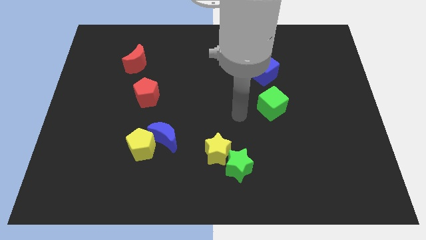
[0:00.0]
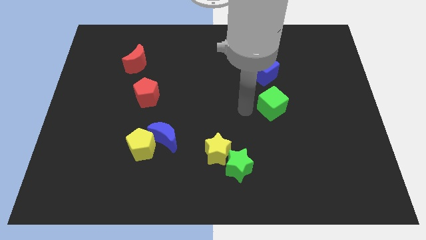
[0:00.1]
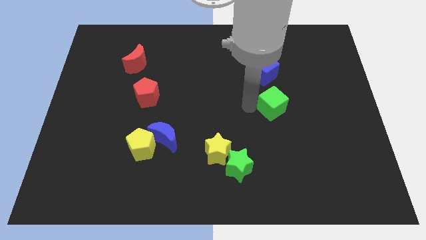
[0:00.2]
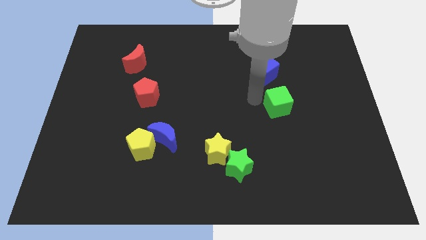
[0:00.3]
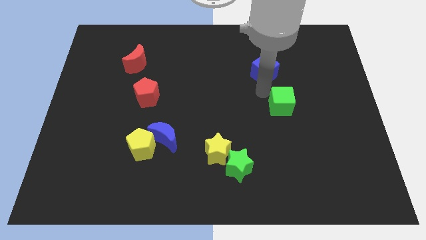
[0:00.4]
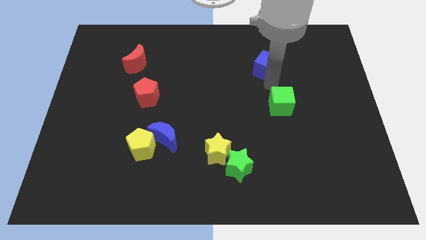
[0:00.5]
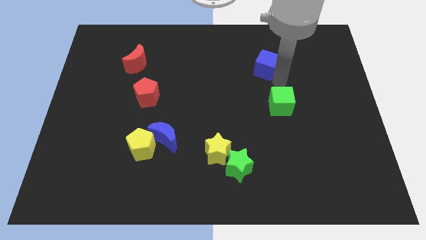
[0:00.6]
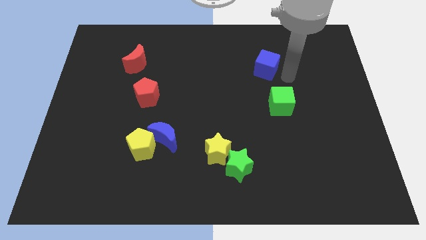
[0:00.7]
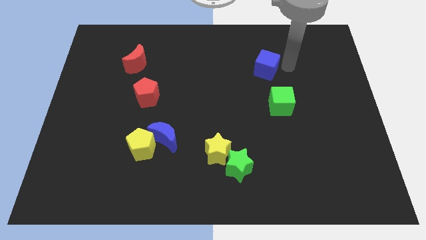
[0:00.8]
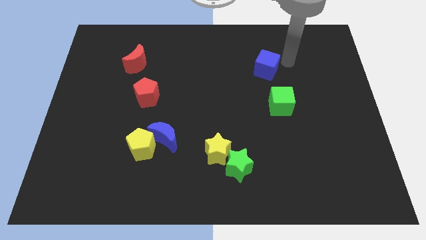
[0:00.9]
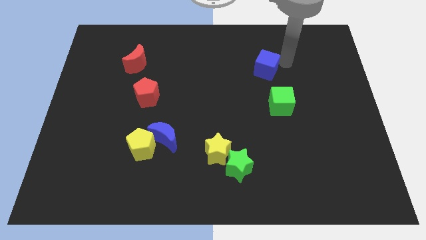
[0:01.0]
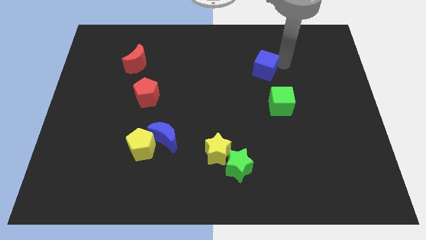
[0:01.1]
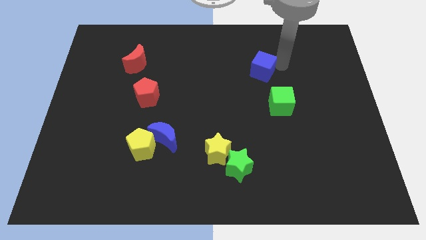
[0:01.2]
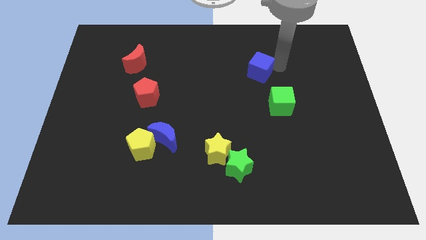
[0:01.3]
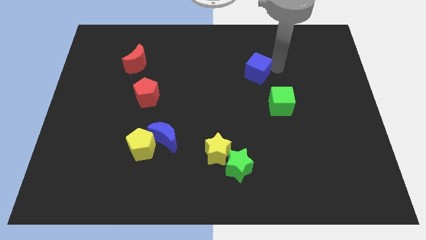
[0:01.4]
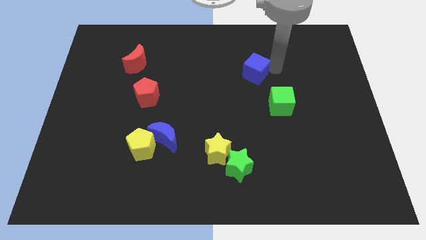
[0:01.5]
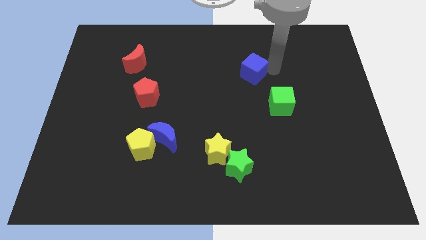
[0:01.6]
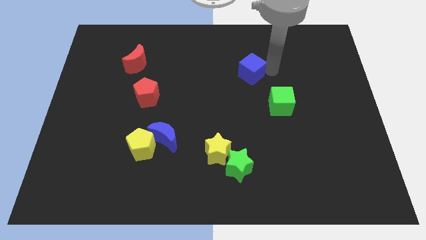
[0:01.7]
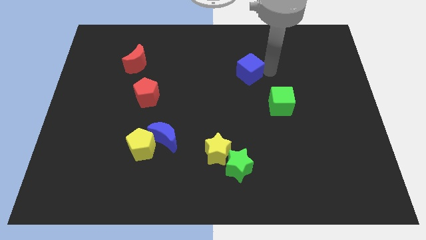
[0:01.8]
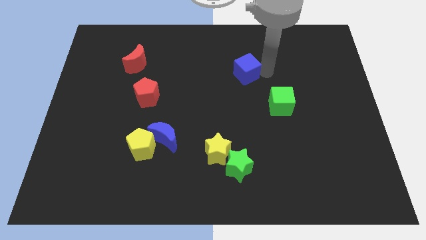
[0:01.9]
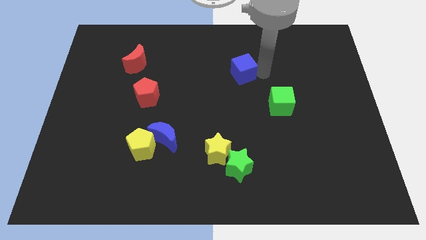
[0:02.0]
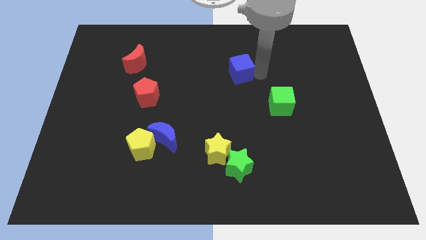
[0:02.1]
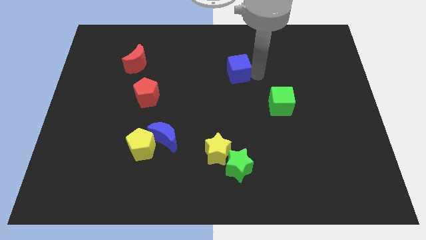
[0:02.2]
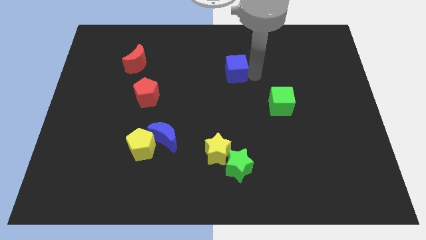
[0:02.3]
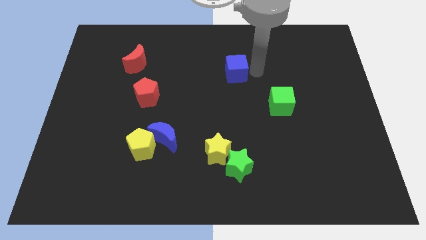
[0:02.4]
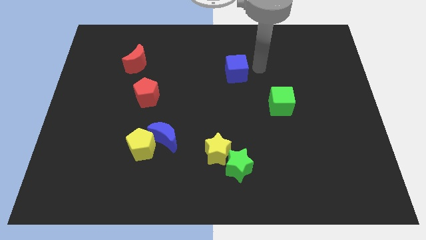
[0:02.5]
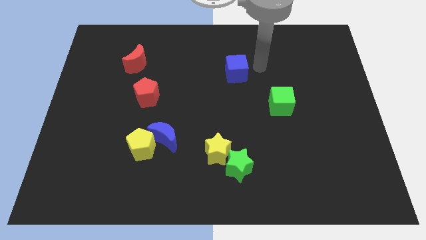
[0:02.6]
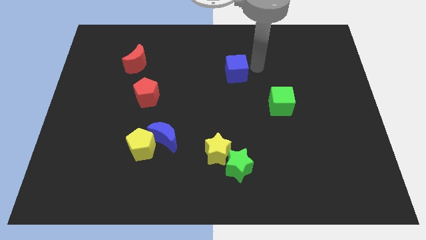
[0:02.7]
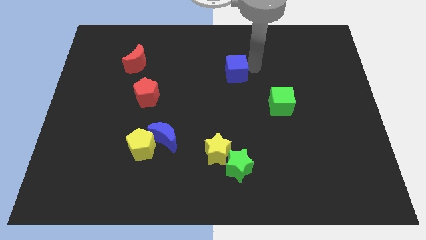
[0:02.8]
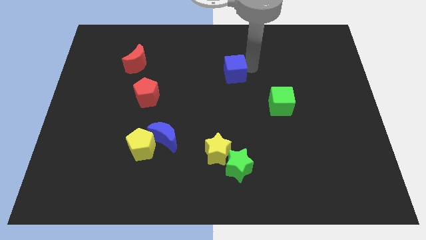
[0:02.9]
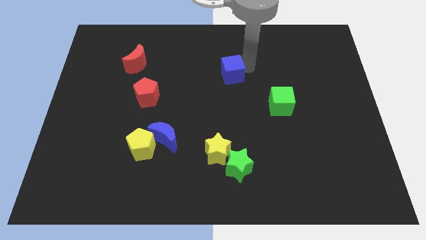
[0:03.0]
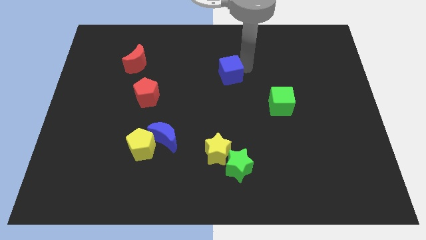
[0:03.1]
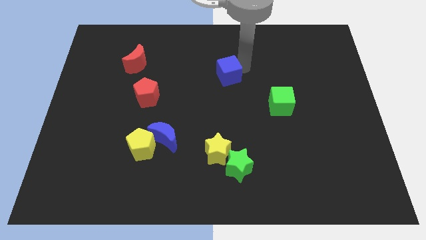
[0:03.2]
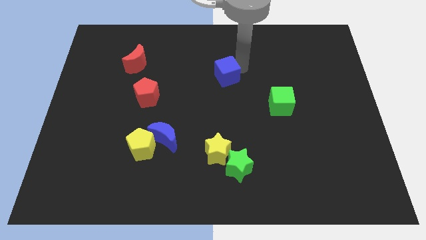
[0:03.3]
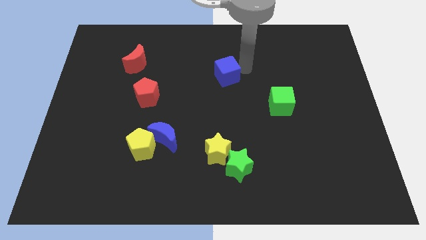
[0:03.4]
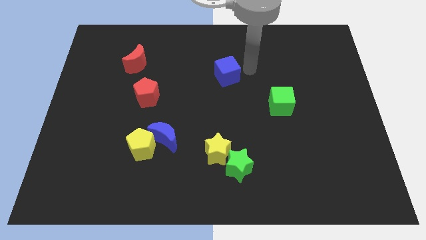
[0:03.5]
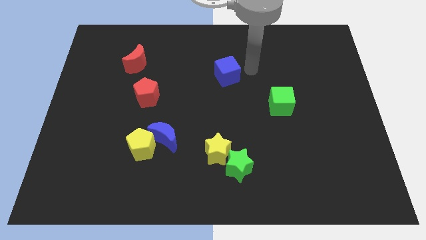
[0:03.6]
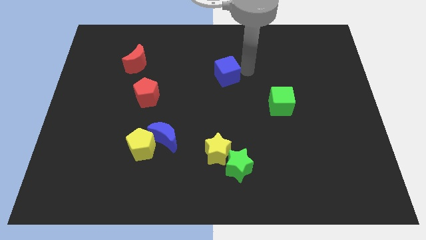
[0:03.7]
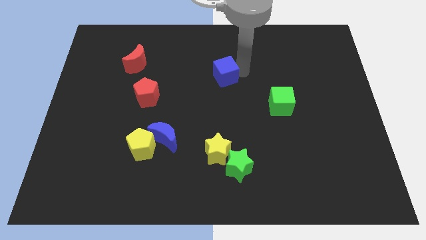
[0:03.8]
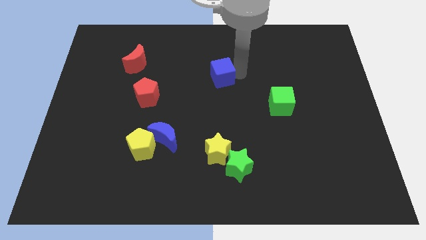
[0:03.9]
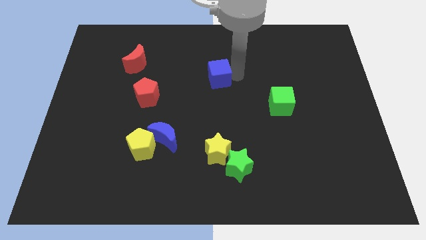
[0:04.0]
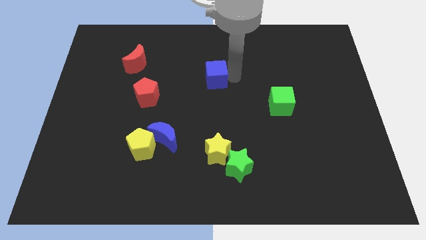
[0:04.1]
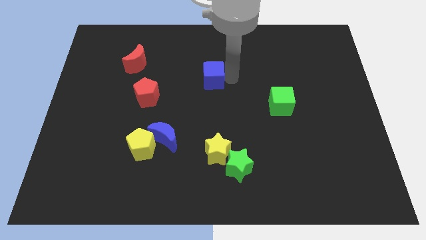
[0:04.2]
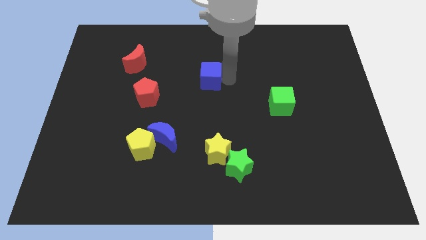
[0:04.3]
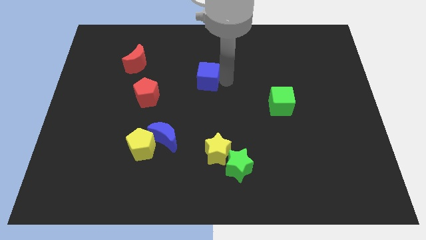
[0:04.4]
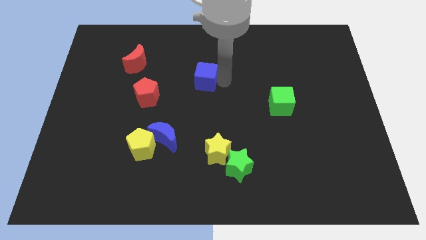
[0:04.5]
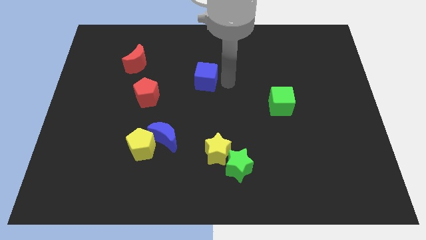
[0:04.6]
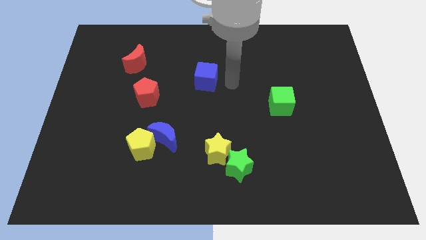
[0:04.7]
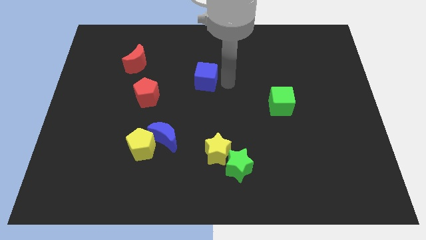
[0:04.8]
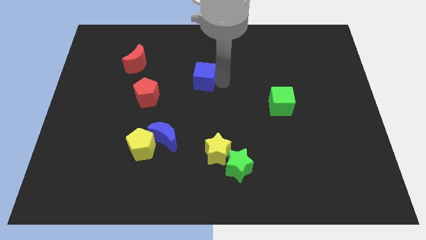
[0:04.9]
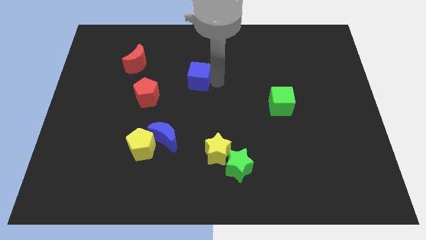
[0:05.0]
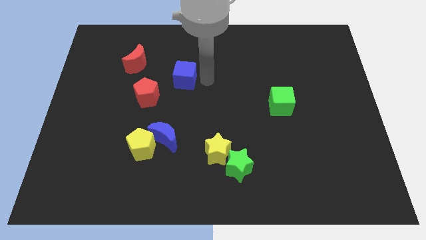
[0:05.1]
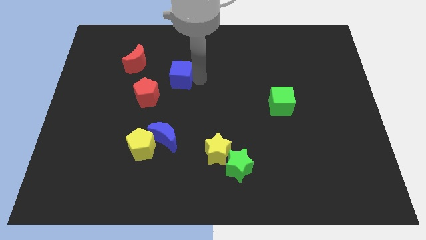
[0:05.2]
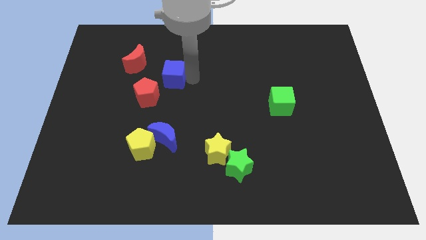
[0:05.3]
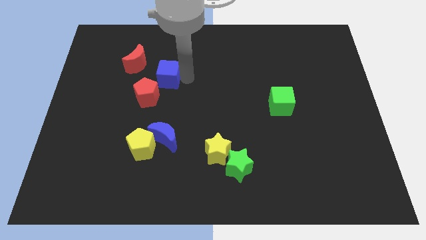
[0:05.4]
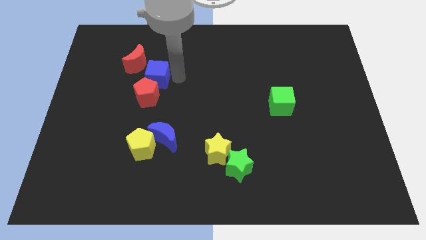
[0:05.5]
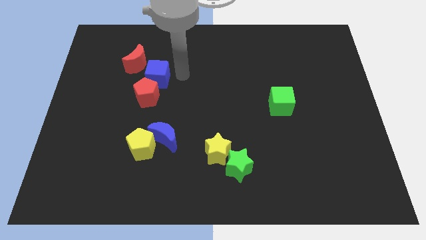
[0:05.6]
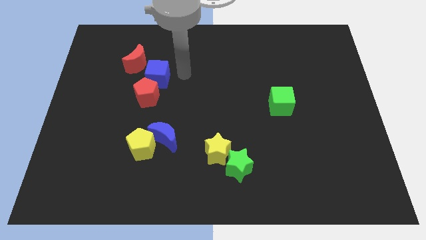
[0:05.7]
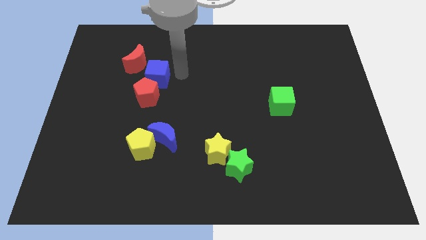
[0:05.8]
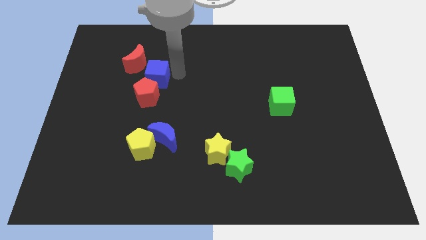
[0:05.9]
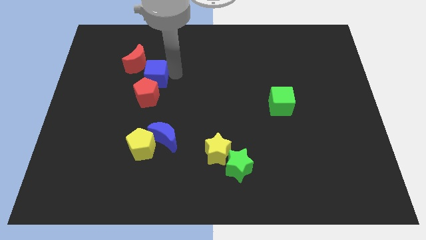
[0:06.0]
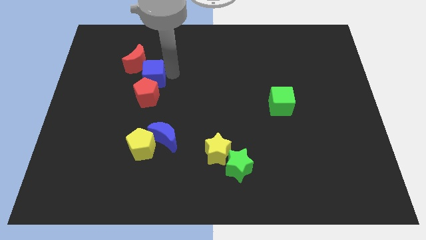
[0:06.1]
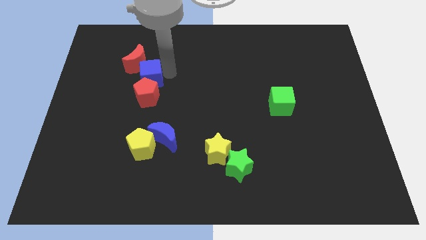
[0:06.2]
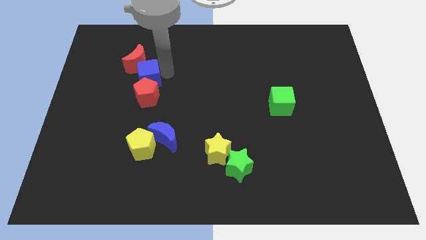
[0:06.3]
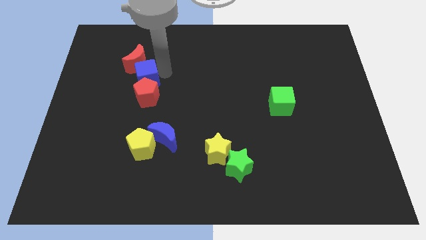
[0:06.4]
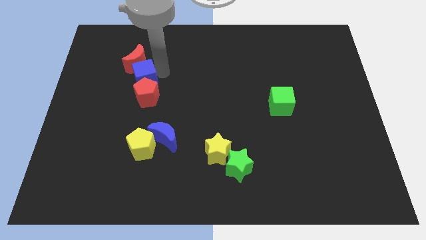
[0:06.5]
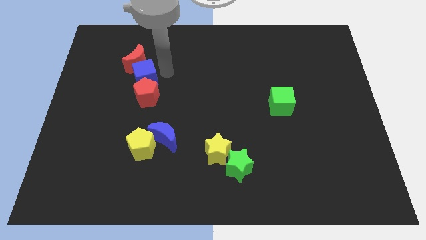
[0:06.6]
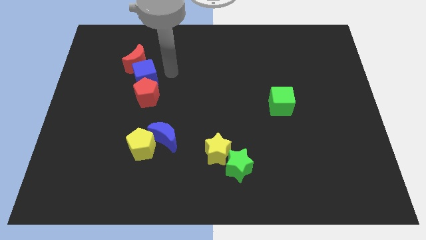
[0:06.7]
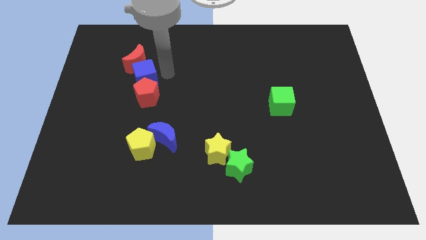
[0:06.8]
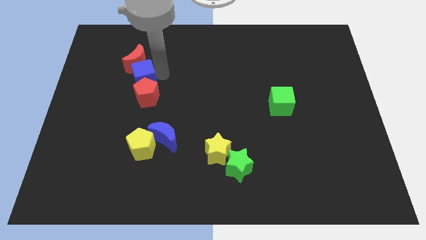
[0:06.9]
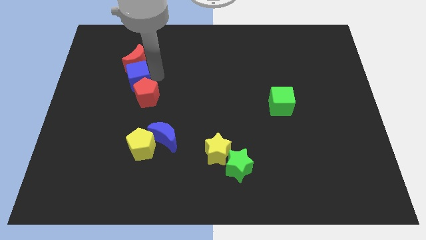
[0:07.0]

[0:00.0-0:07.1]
put the blue cube diagonally down and to the left of the red moon
